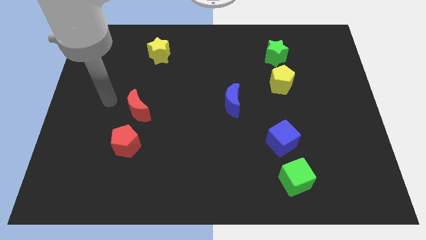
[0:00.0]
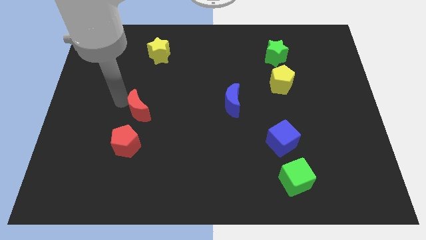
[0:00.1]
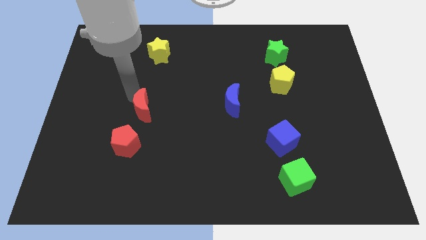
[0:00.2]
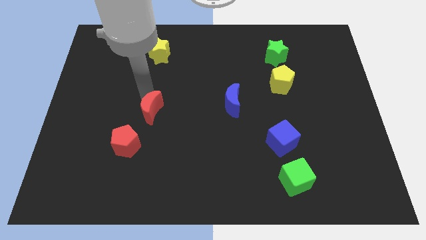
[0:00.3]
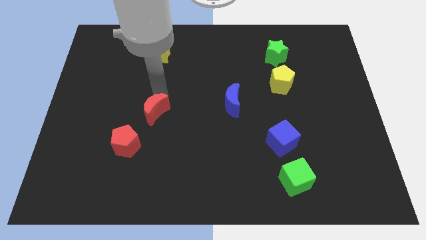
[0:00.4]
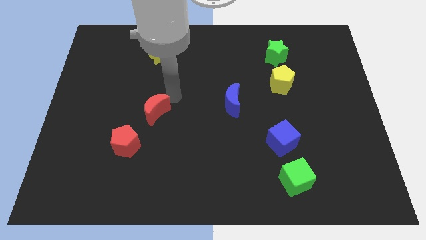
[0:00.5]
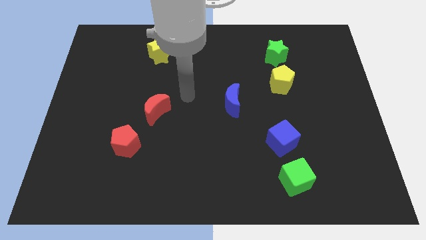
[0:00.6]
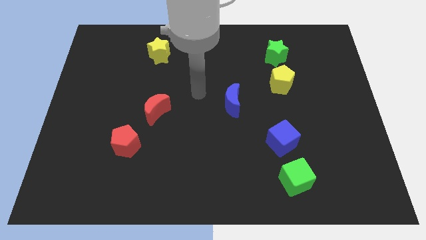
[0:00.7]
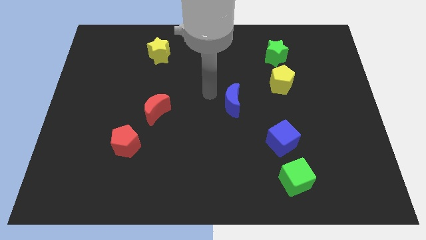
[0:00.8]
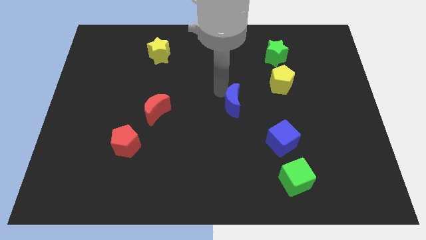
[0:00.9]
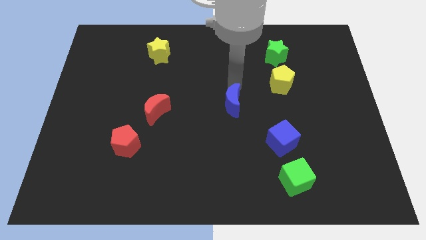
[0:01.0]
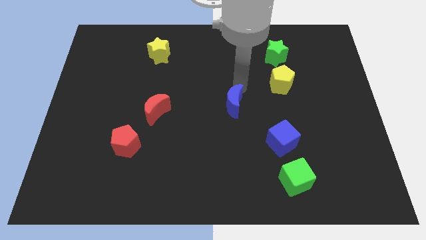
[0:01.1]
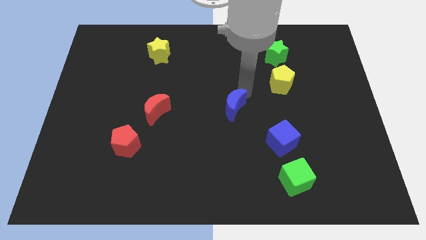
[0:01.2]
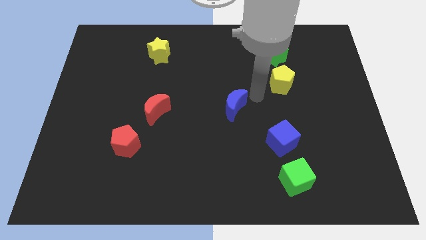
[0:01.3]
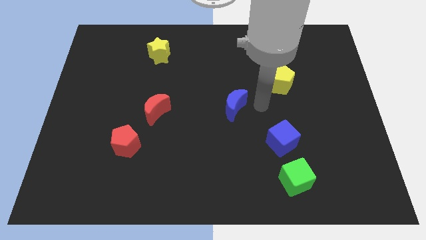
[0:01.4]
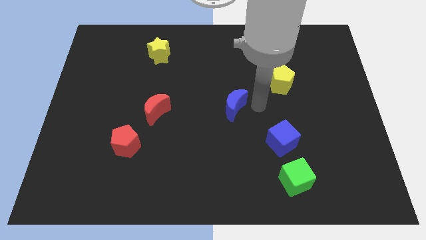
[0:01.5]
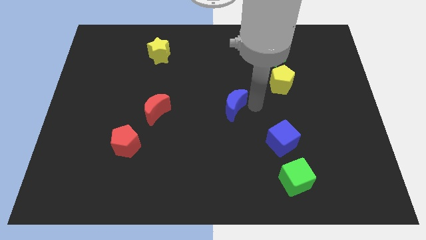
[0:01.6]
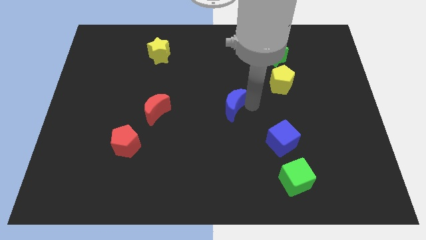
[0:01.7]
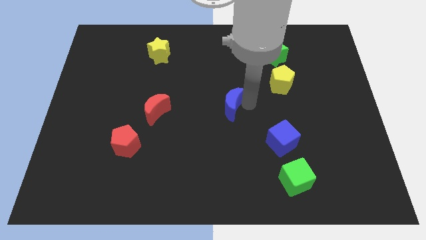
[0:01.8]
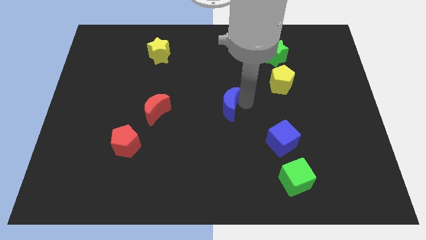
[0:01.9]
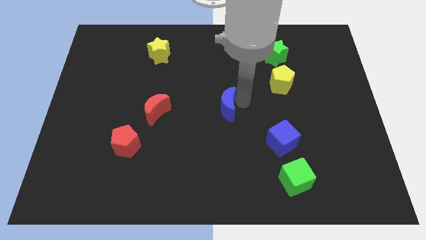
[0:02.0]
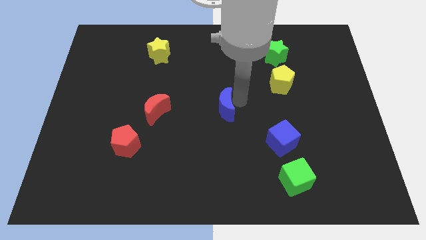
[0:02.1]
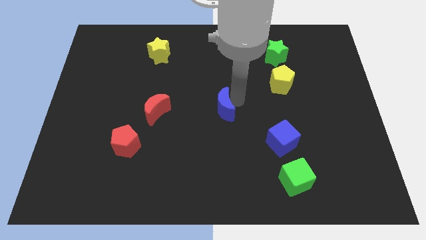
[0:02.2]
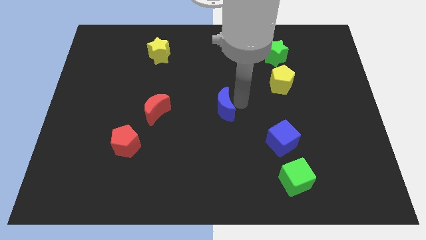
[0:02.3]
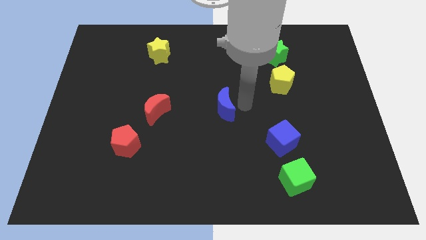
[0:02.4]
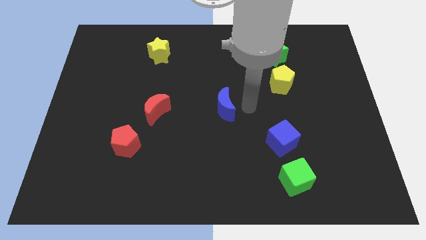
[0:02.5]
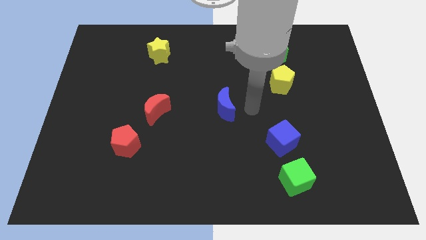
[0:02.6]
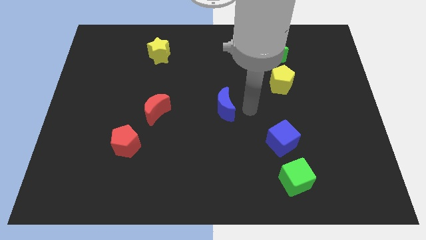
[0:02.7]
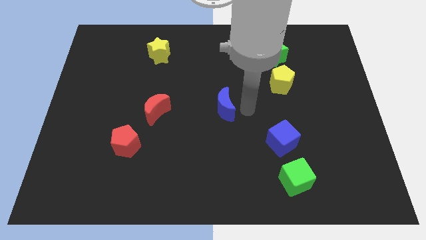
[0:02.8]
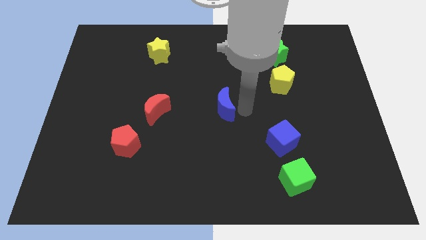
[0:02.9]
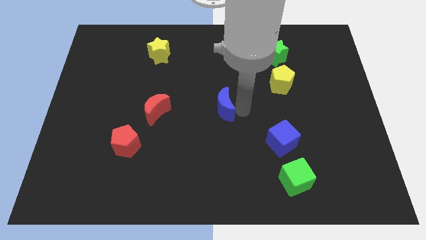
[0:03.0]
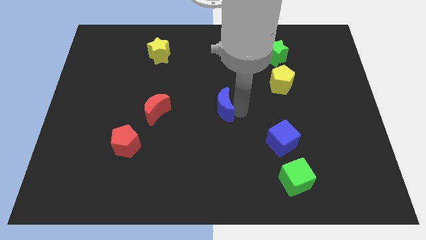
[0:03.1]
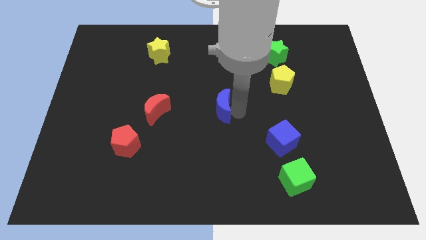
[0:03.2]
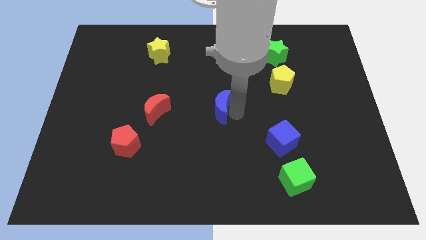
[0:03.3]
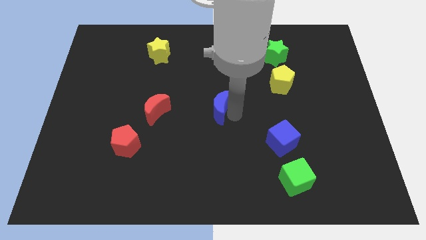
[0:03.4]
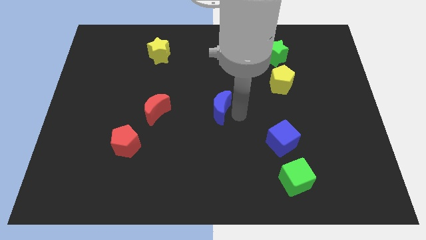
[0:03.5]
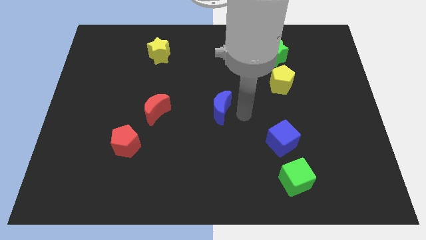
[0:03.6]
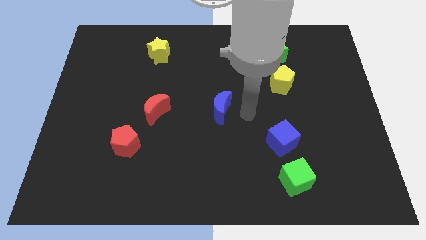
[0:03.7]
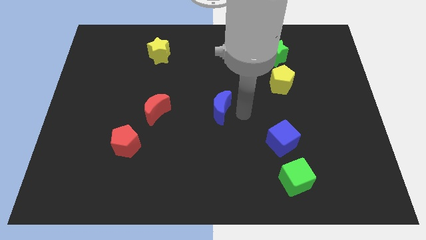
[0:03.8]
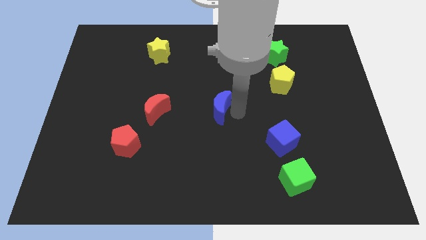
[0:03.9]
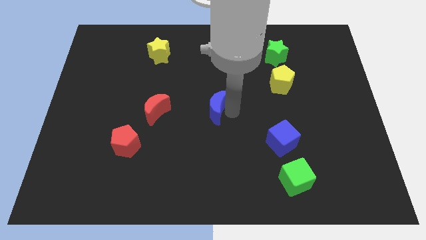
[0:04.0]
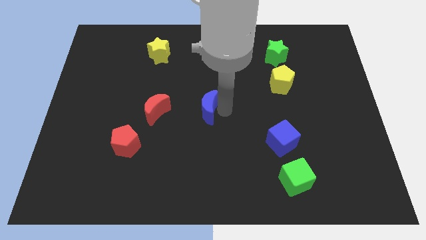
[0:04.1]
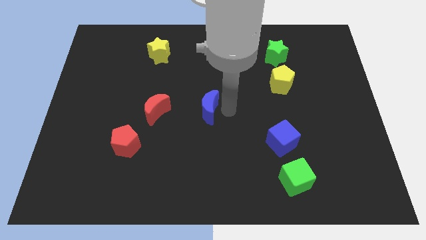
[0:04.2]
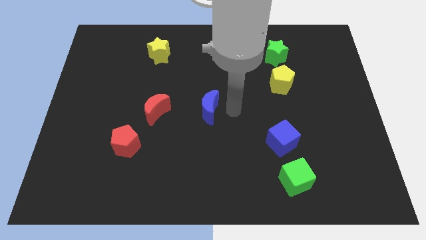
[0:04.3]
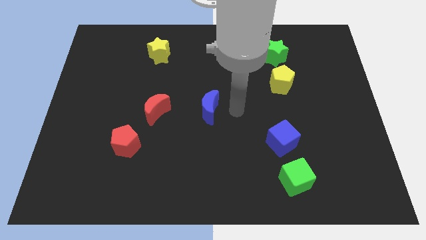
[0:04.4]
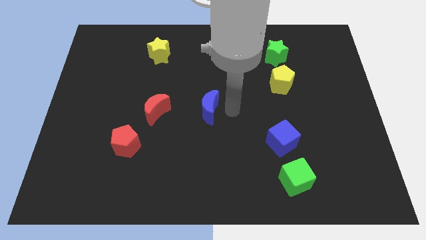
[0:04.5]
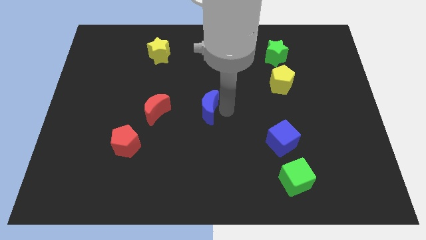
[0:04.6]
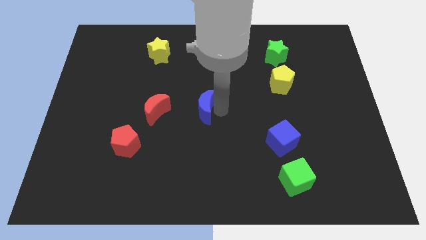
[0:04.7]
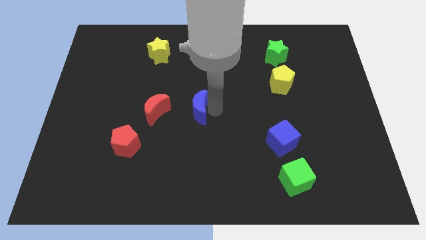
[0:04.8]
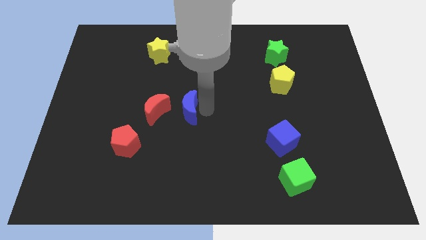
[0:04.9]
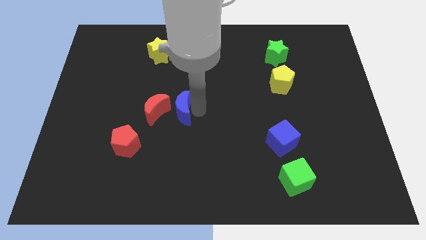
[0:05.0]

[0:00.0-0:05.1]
push the blue moon to the red moon

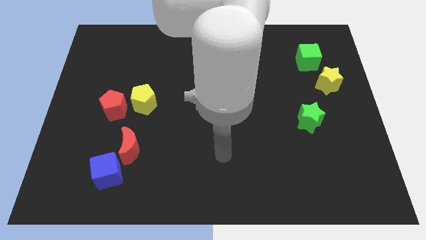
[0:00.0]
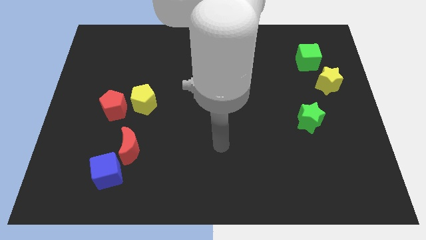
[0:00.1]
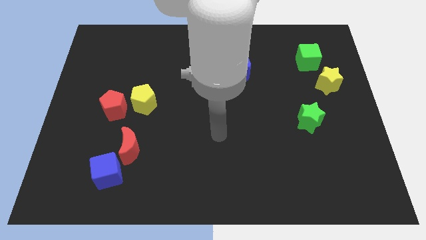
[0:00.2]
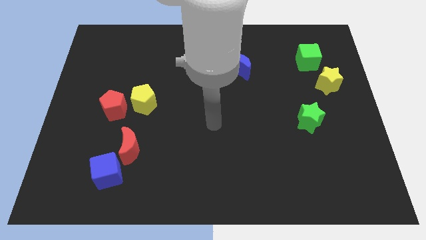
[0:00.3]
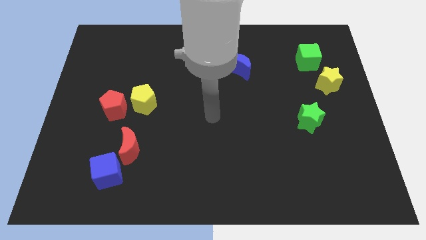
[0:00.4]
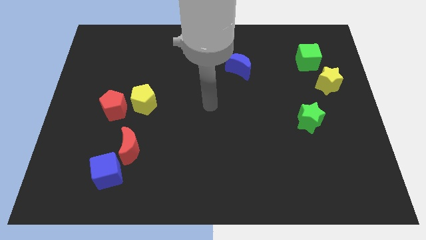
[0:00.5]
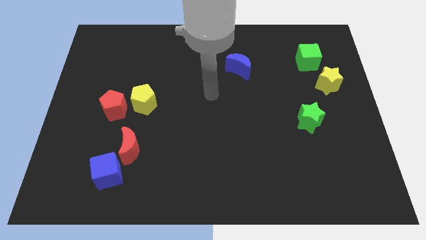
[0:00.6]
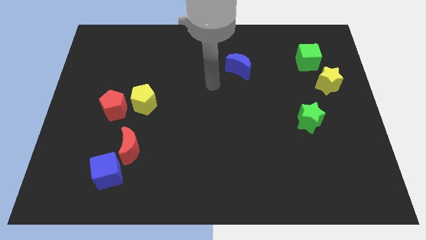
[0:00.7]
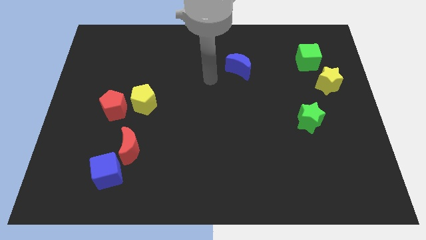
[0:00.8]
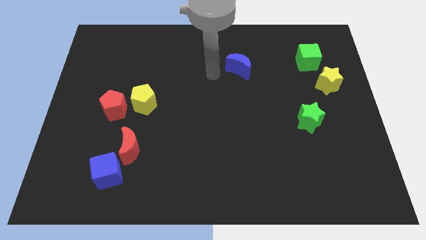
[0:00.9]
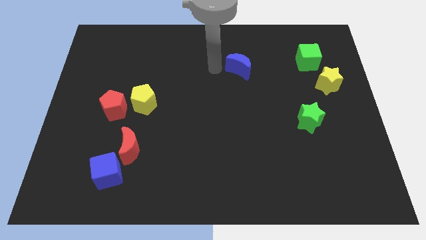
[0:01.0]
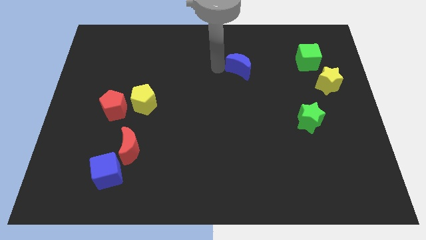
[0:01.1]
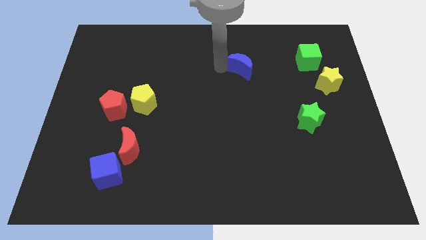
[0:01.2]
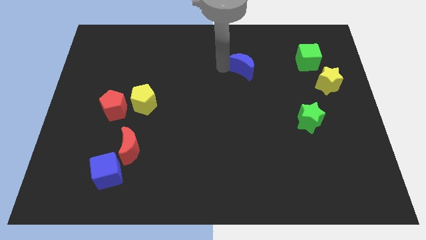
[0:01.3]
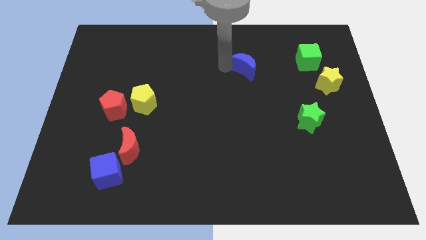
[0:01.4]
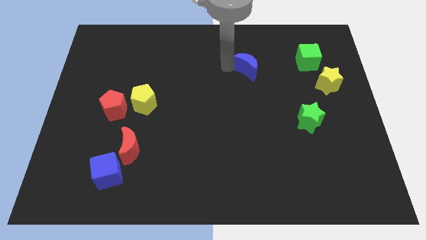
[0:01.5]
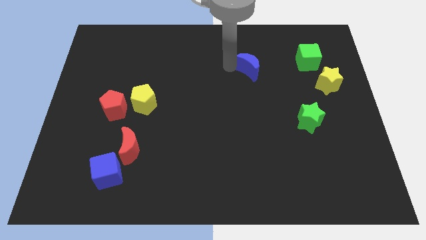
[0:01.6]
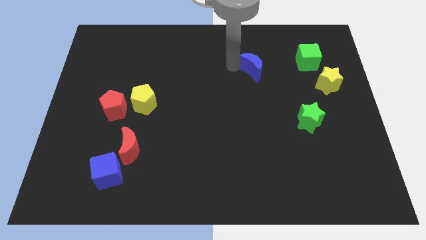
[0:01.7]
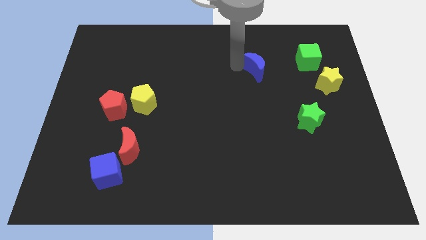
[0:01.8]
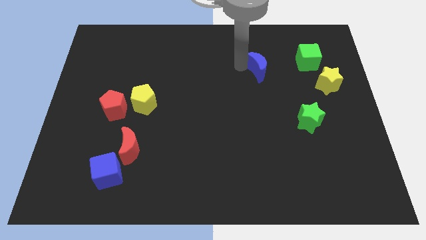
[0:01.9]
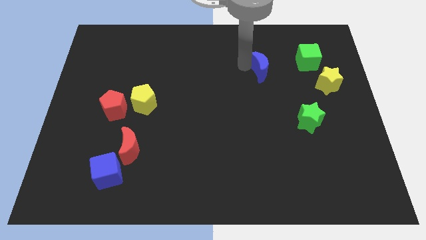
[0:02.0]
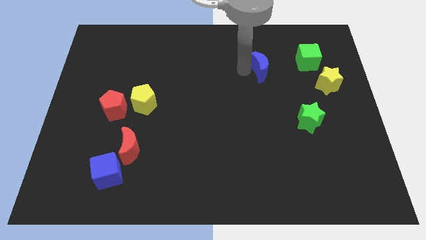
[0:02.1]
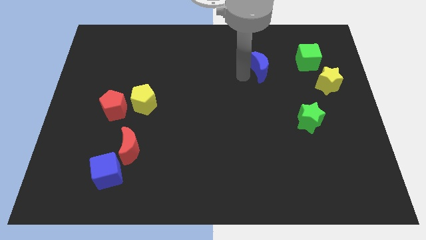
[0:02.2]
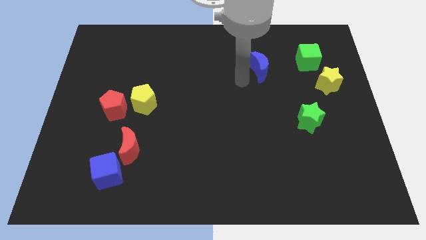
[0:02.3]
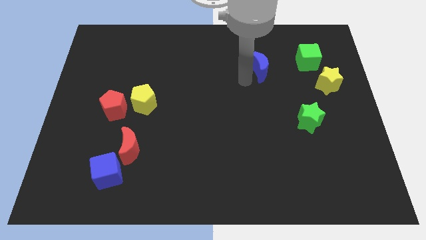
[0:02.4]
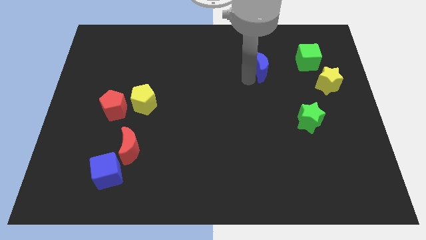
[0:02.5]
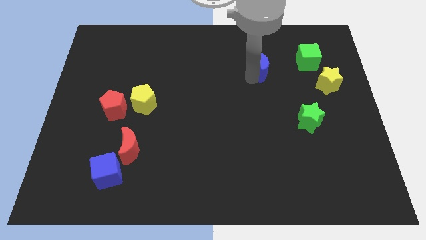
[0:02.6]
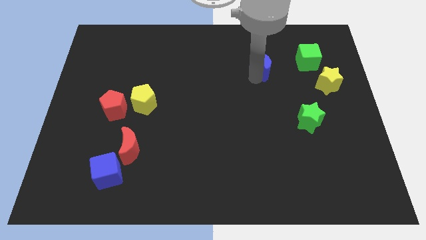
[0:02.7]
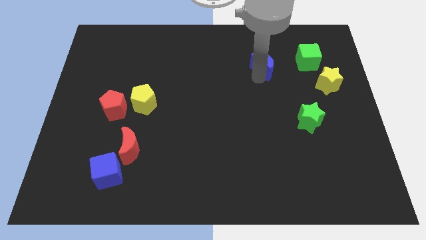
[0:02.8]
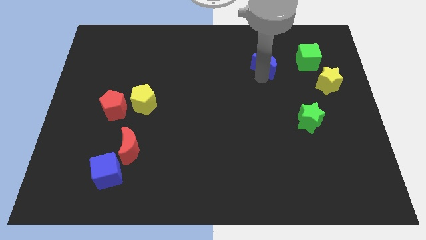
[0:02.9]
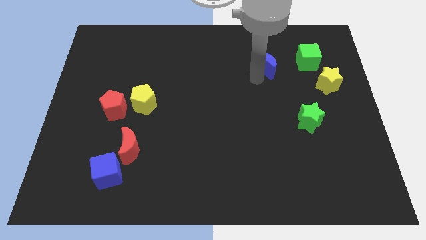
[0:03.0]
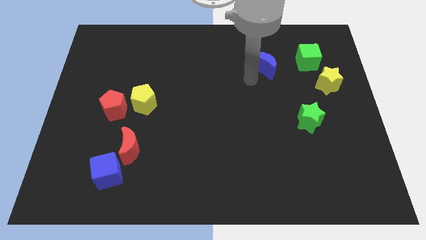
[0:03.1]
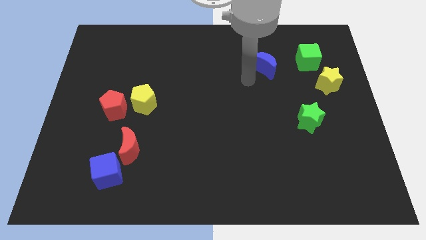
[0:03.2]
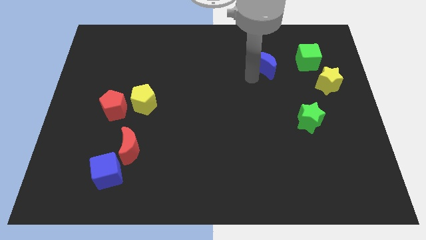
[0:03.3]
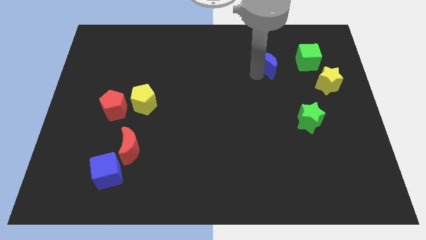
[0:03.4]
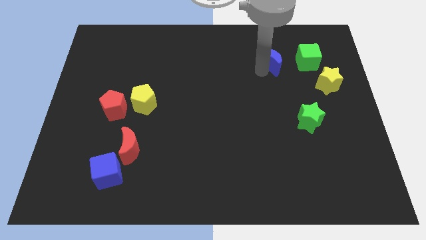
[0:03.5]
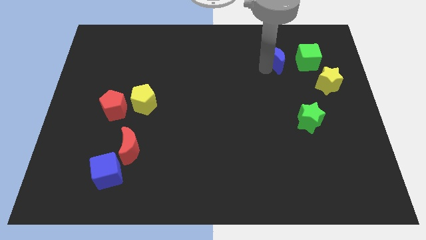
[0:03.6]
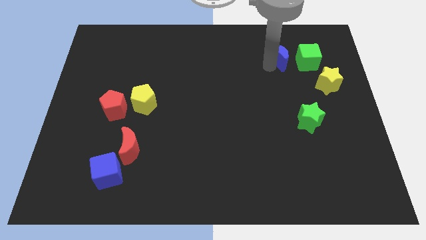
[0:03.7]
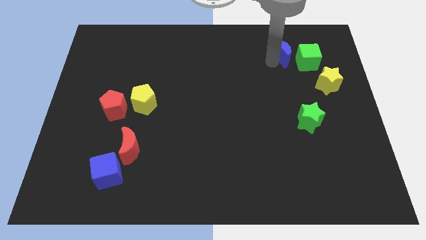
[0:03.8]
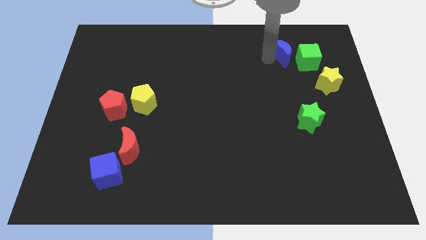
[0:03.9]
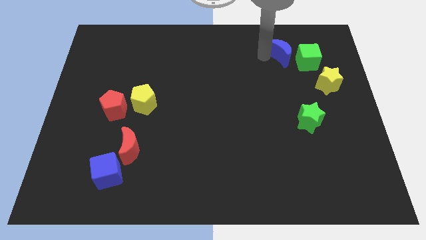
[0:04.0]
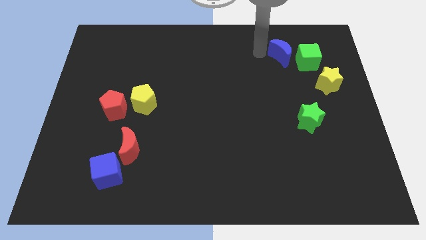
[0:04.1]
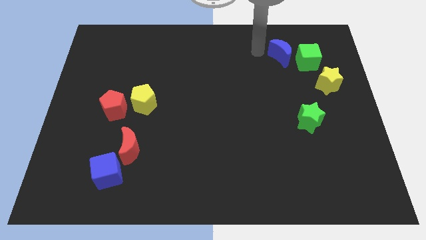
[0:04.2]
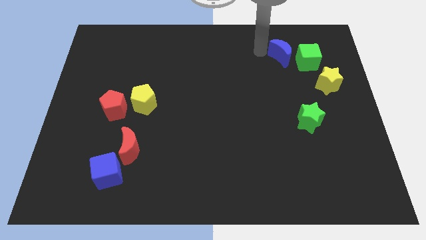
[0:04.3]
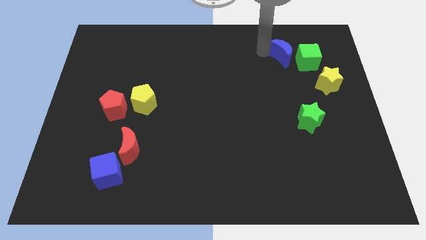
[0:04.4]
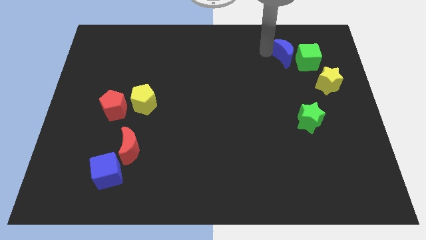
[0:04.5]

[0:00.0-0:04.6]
slide the blue moon towards the green cube
